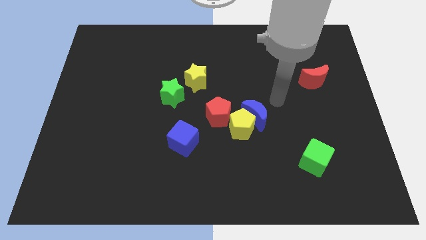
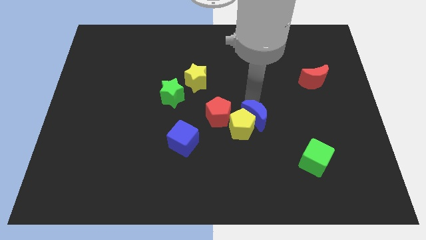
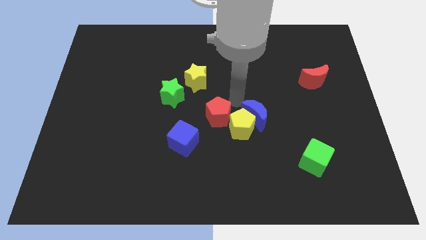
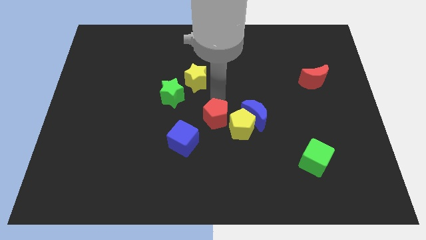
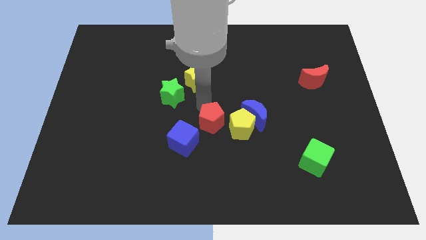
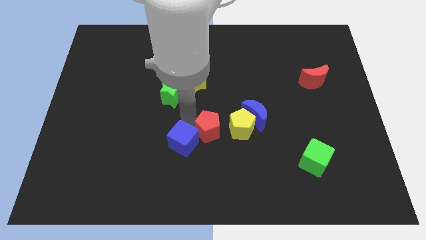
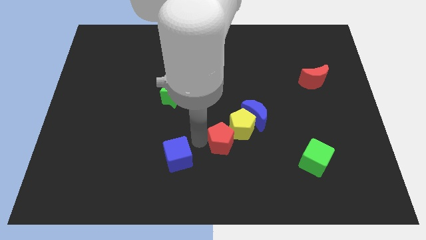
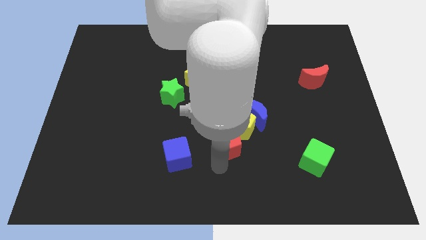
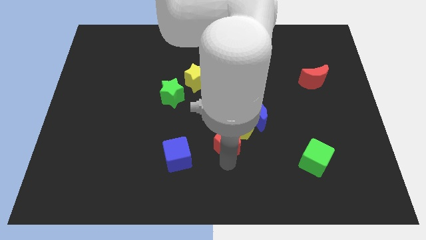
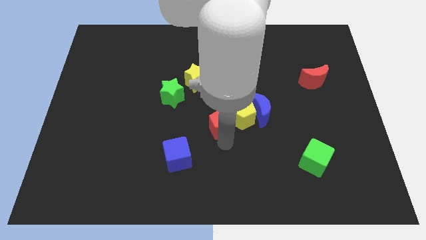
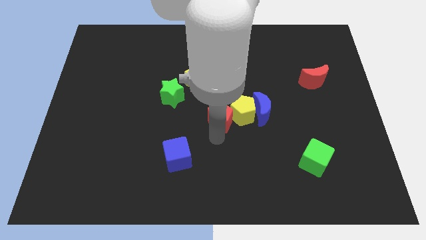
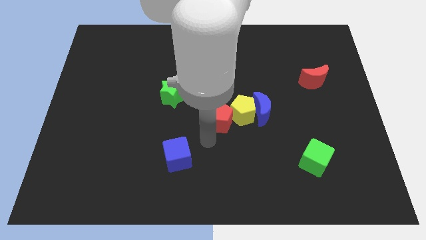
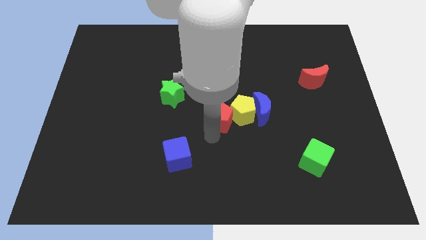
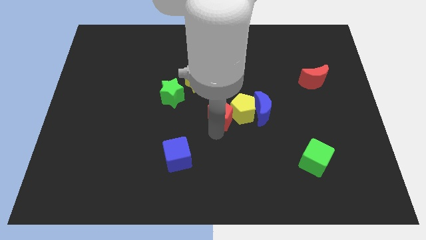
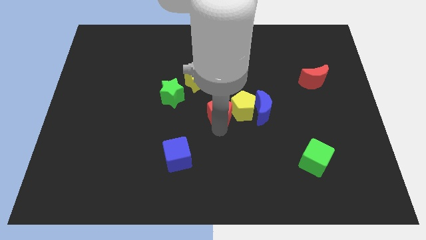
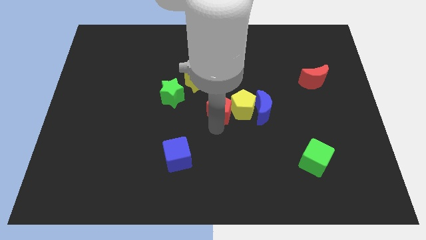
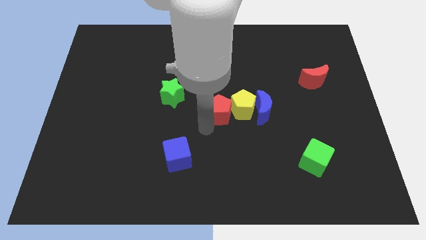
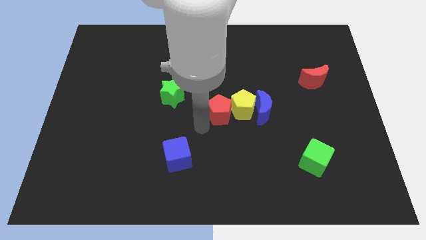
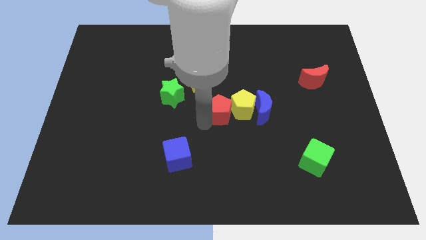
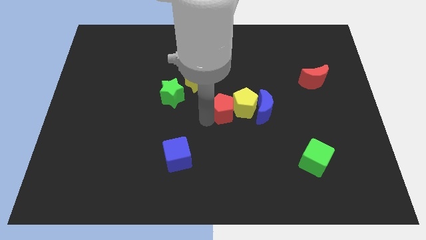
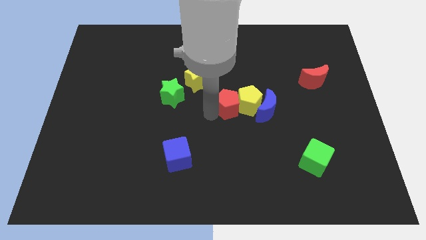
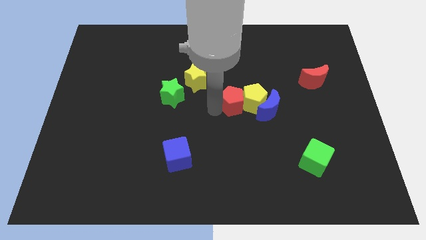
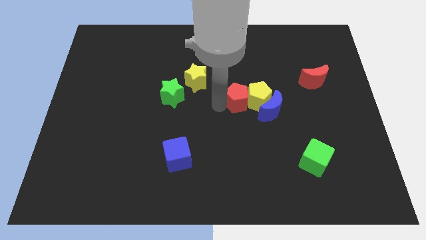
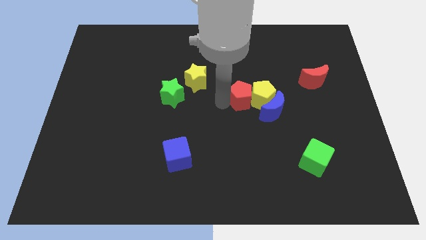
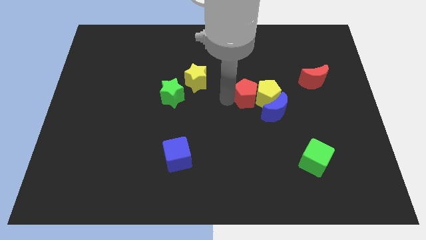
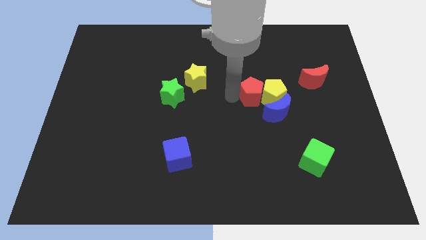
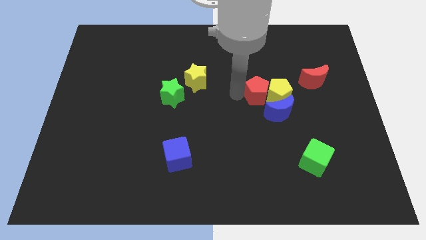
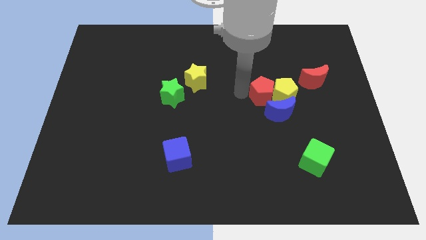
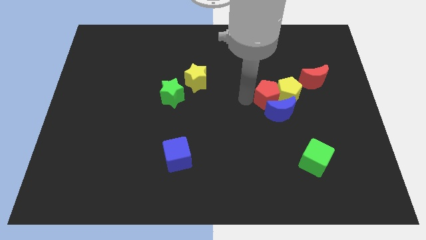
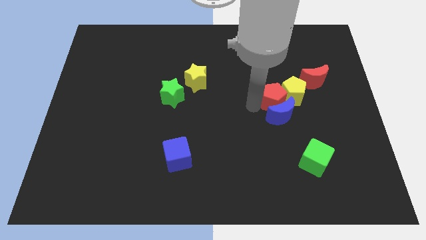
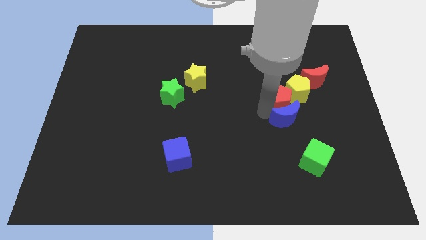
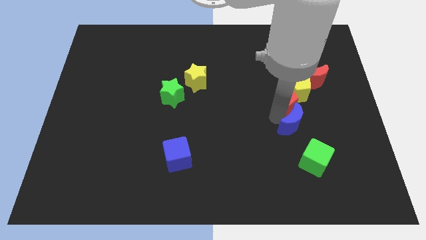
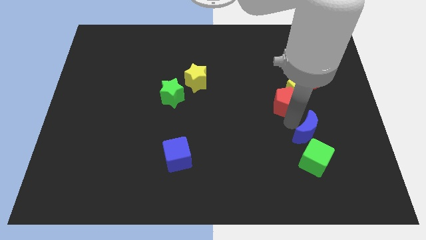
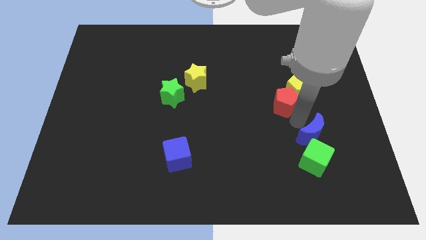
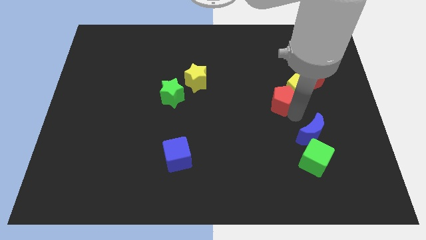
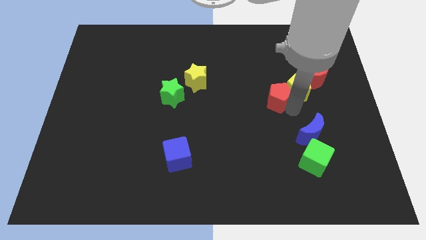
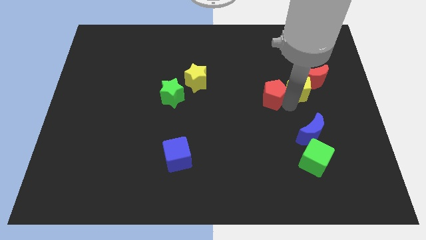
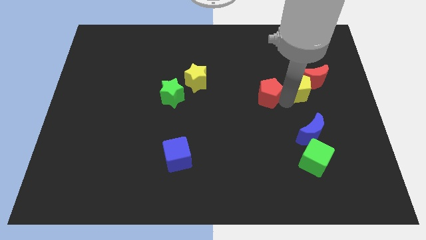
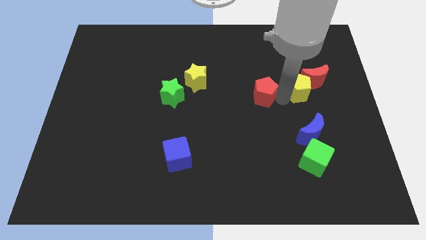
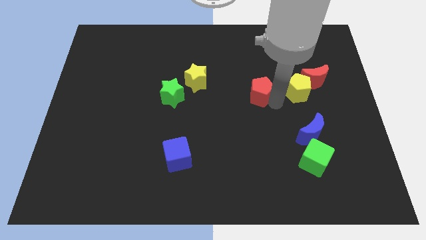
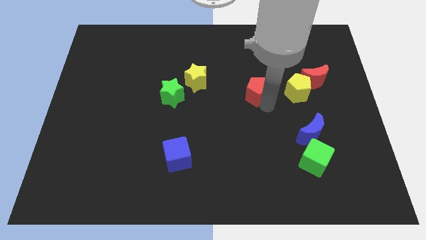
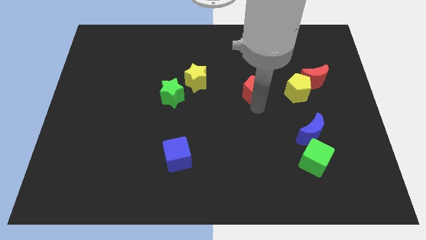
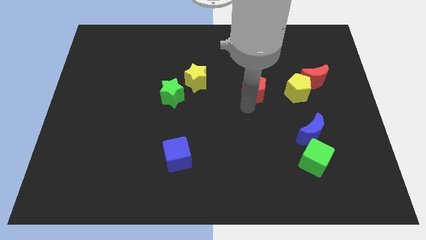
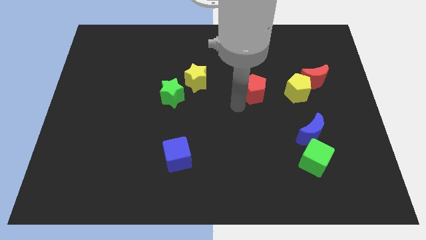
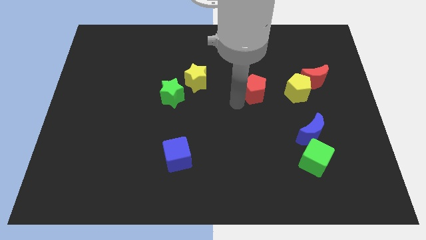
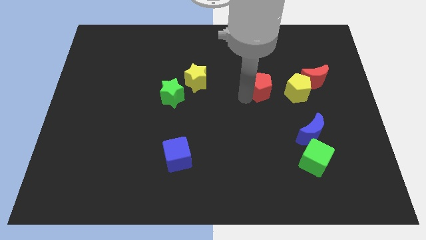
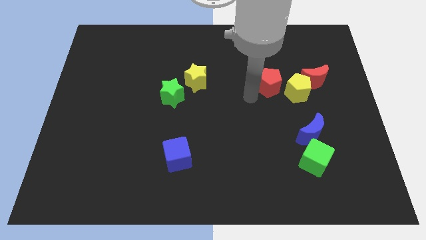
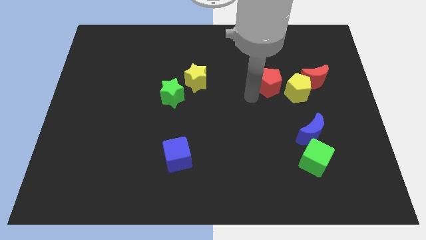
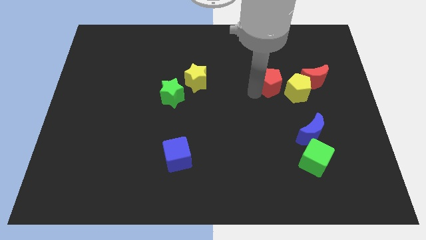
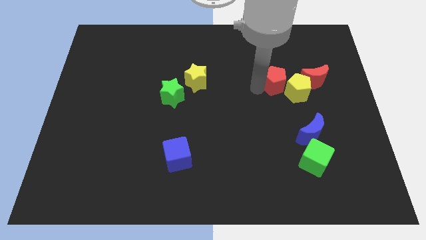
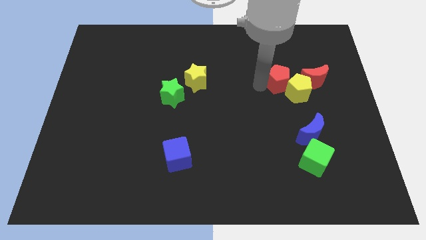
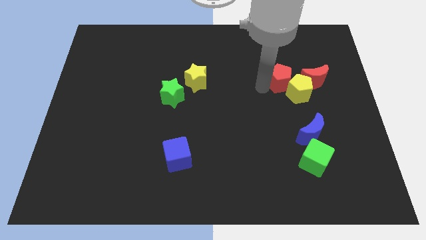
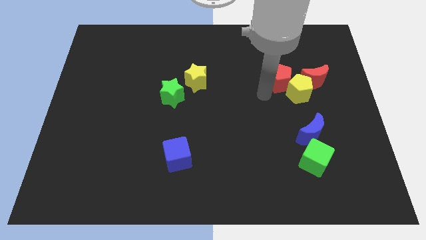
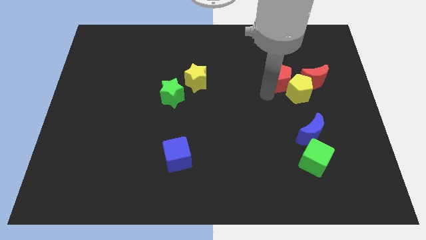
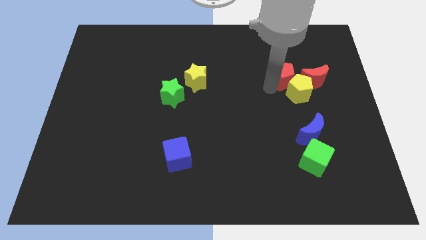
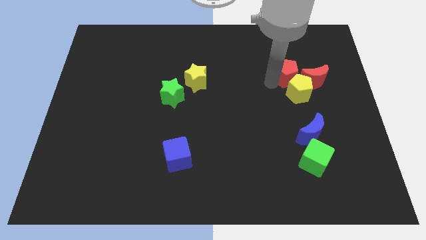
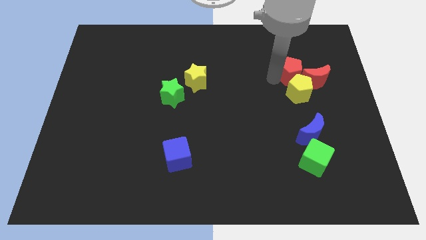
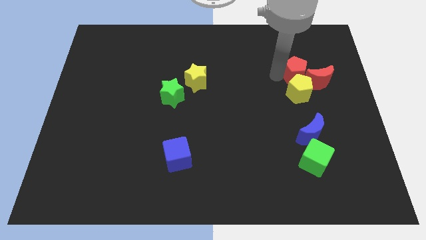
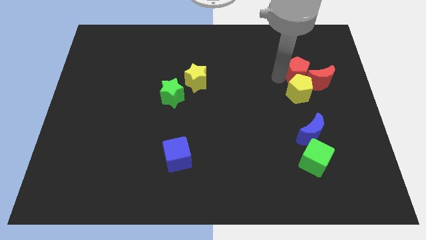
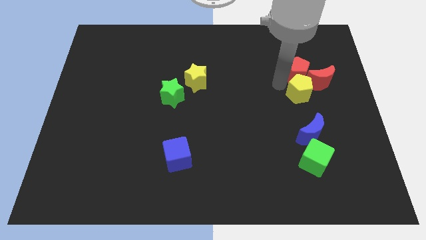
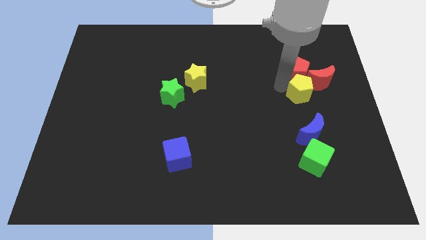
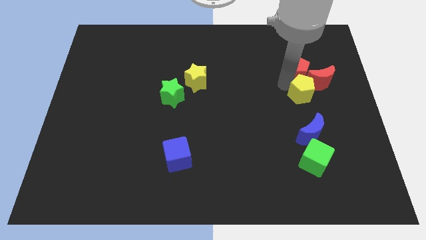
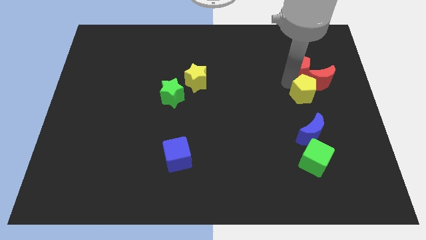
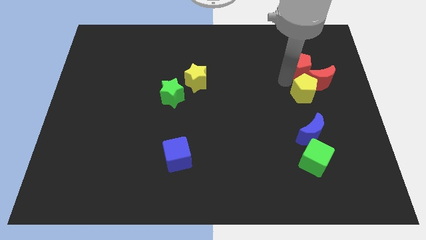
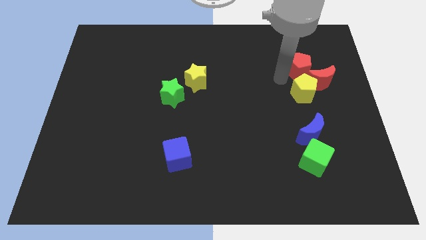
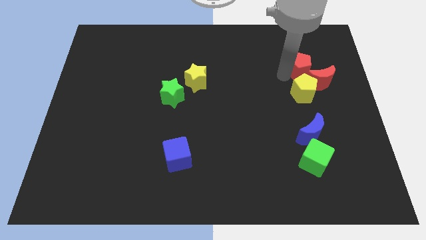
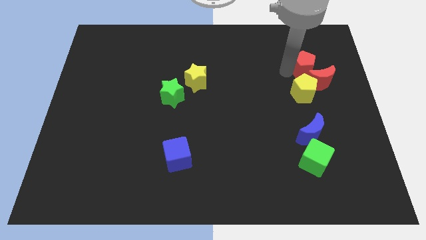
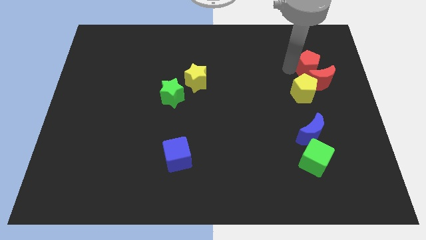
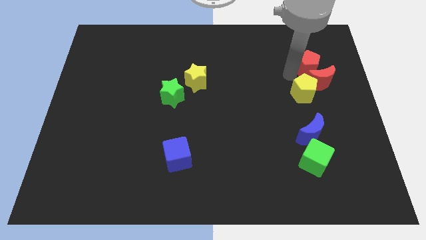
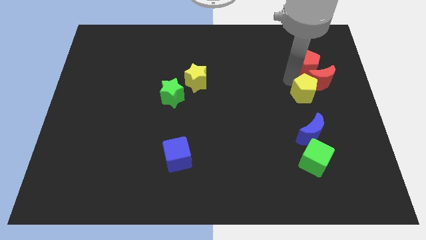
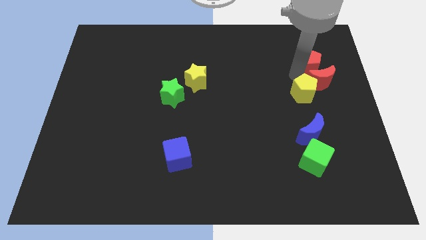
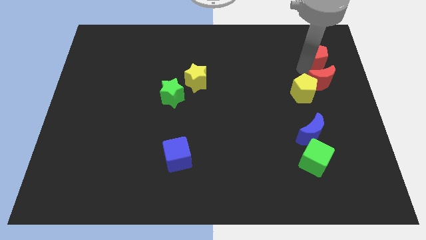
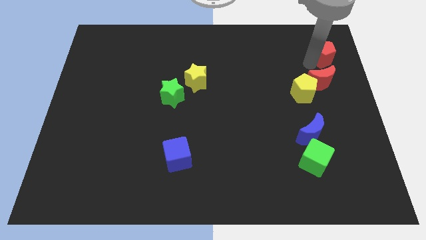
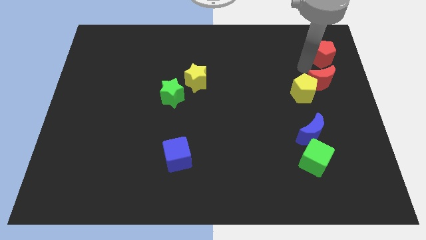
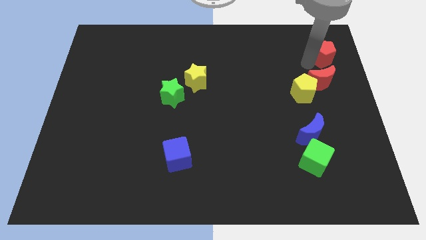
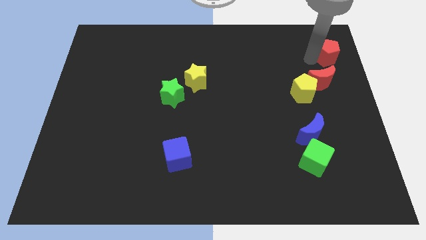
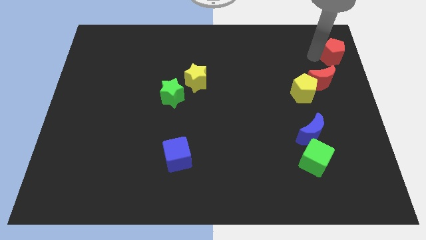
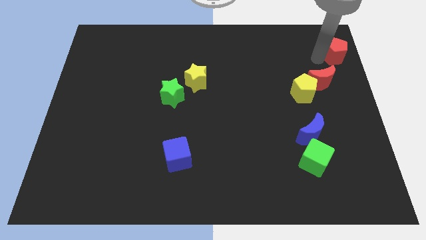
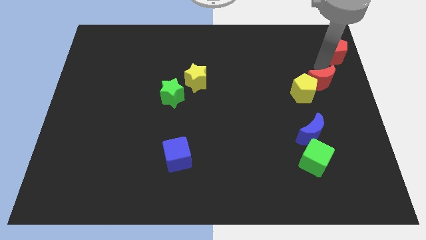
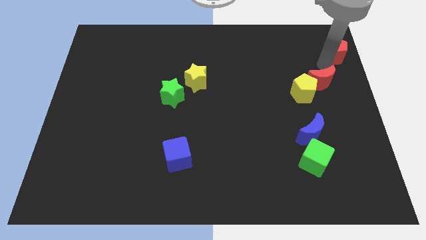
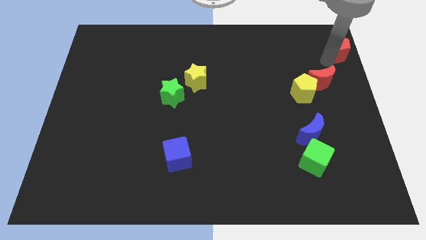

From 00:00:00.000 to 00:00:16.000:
move the red pentagon to the top right corner
